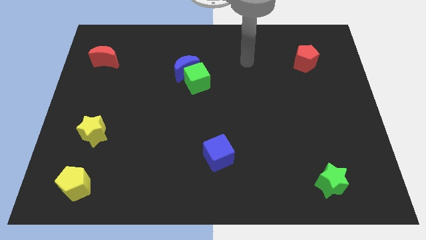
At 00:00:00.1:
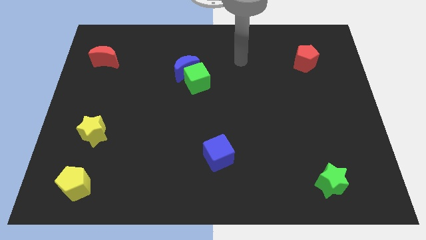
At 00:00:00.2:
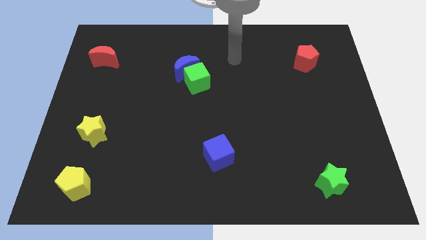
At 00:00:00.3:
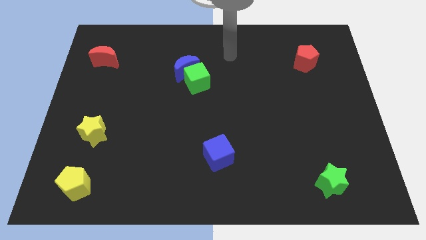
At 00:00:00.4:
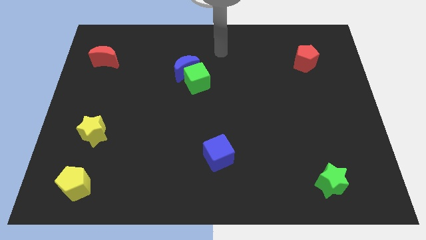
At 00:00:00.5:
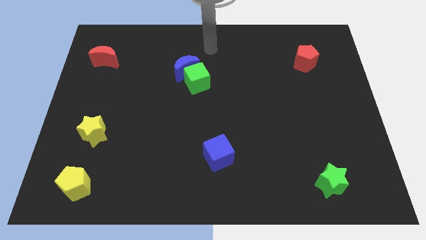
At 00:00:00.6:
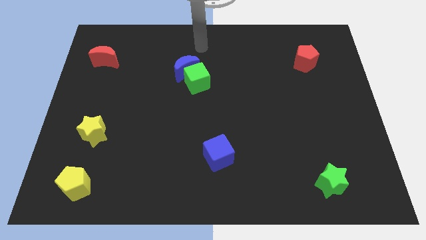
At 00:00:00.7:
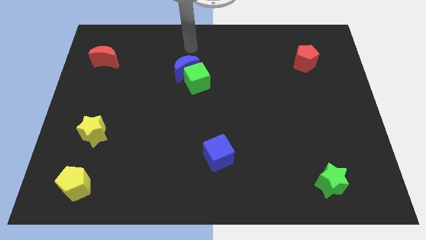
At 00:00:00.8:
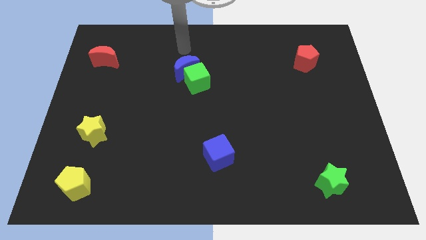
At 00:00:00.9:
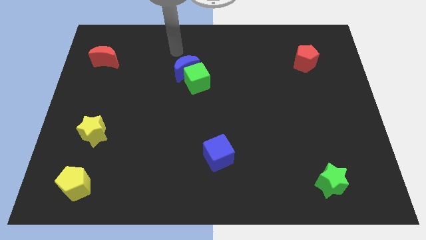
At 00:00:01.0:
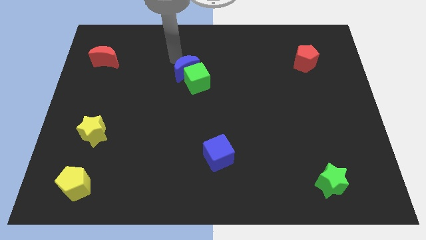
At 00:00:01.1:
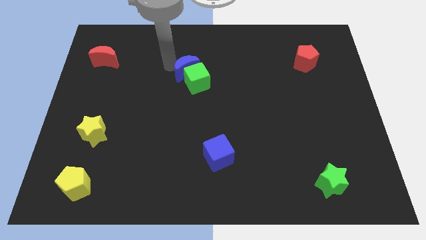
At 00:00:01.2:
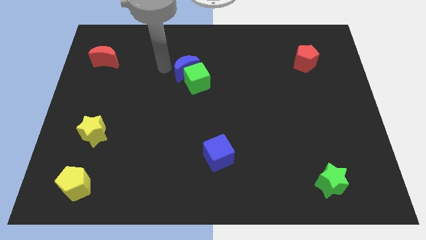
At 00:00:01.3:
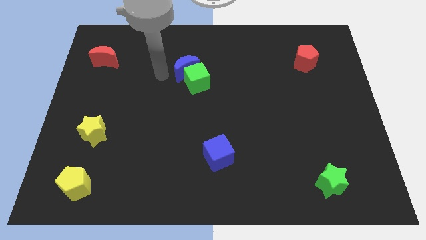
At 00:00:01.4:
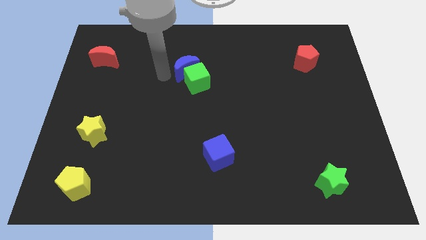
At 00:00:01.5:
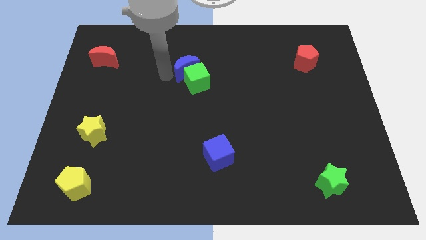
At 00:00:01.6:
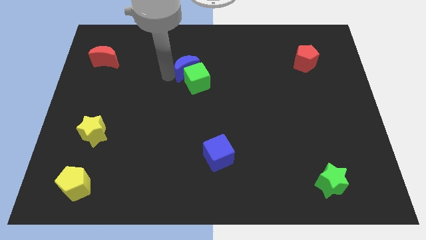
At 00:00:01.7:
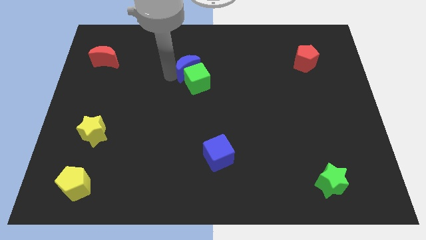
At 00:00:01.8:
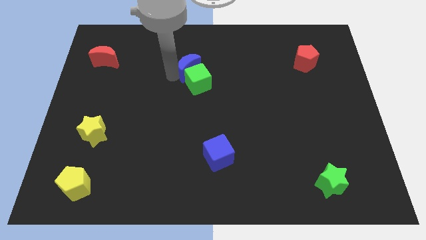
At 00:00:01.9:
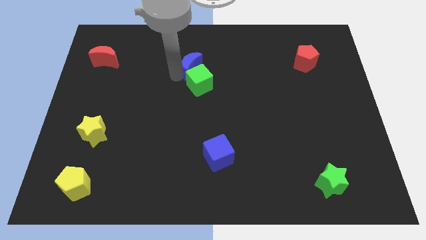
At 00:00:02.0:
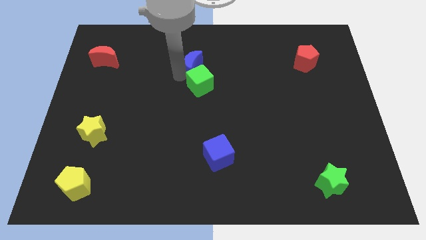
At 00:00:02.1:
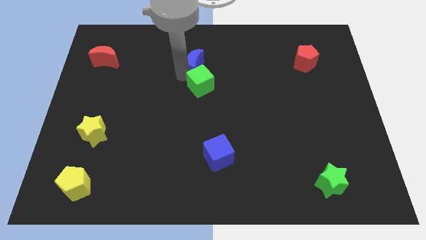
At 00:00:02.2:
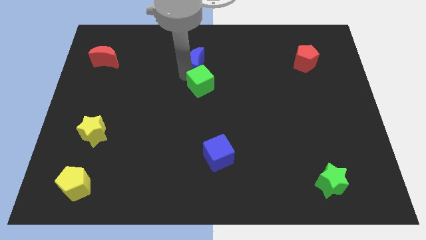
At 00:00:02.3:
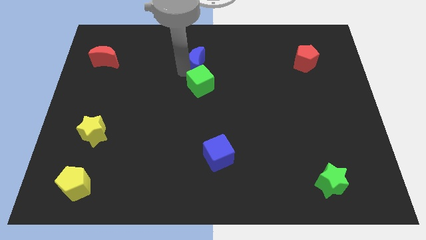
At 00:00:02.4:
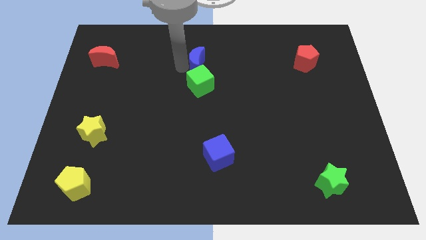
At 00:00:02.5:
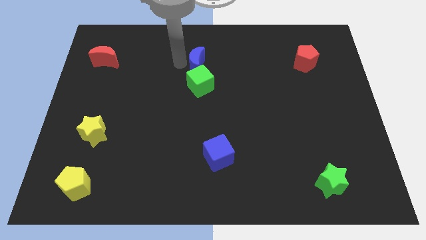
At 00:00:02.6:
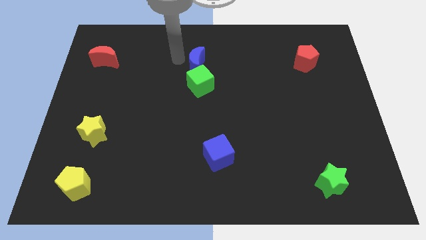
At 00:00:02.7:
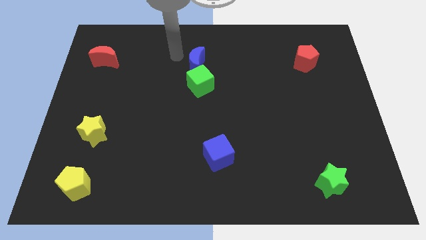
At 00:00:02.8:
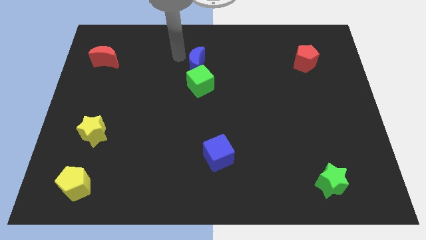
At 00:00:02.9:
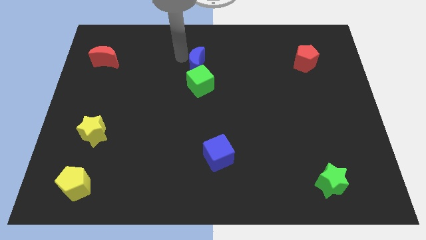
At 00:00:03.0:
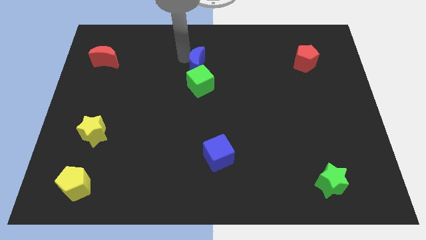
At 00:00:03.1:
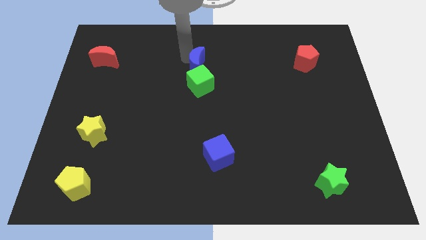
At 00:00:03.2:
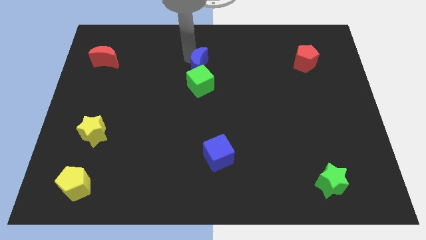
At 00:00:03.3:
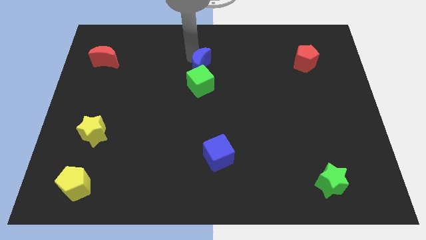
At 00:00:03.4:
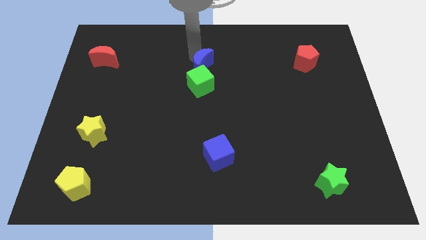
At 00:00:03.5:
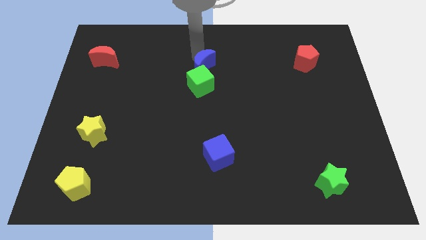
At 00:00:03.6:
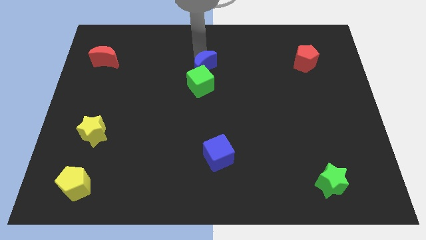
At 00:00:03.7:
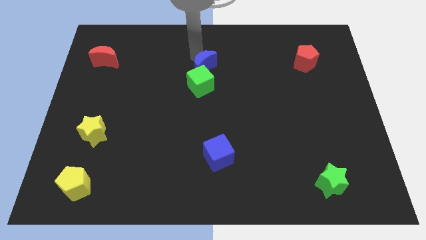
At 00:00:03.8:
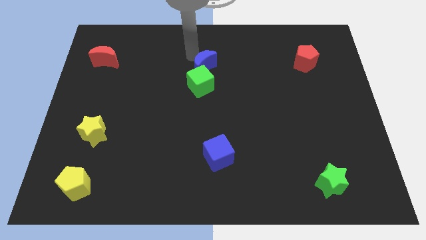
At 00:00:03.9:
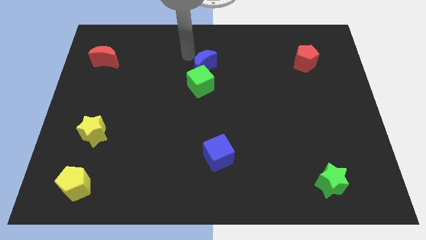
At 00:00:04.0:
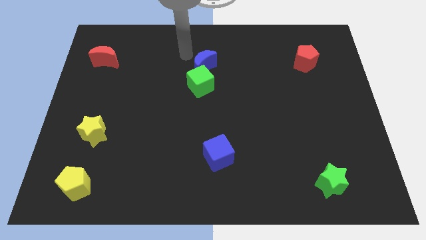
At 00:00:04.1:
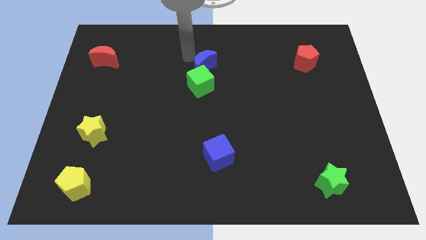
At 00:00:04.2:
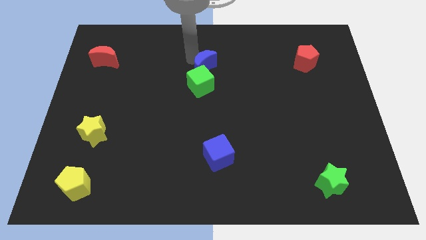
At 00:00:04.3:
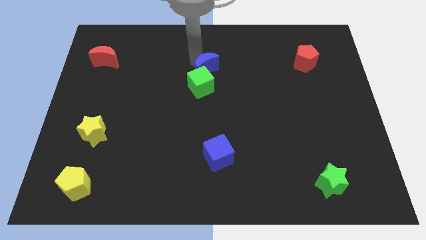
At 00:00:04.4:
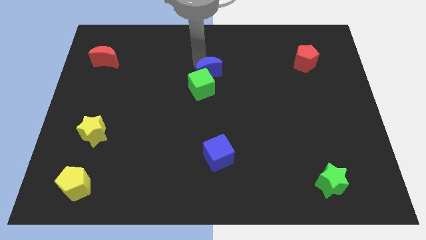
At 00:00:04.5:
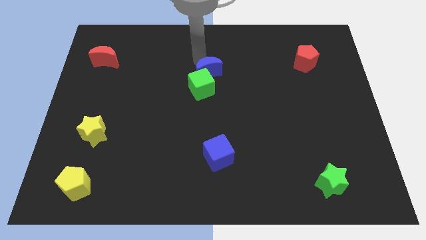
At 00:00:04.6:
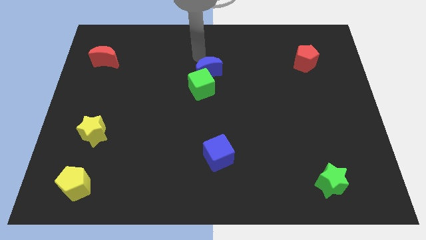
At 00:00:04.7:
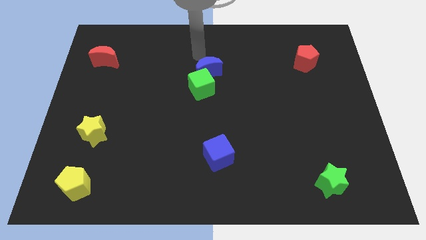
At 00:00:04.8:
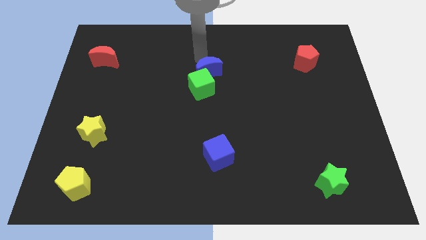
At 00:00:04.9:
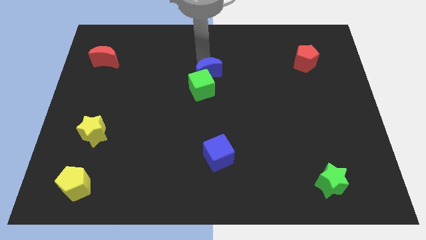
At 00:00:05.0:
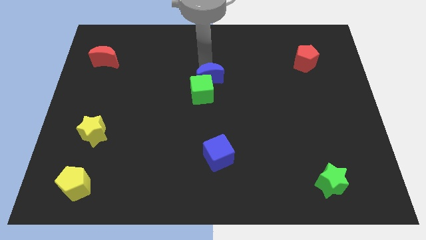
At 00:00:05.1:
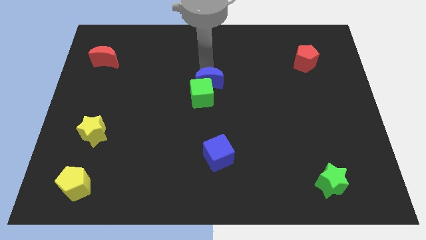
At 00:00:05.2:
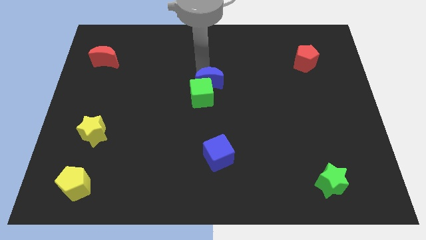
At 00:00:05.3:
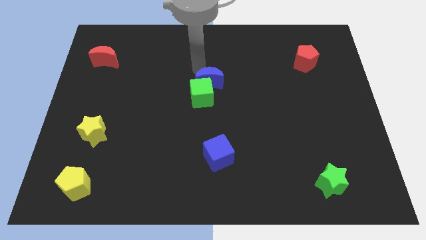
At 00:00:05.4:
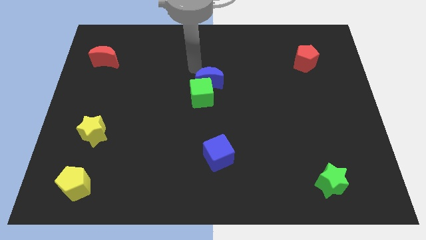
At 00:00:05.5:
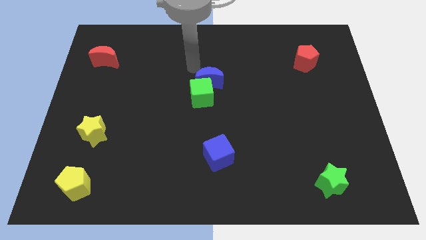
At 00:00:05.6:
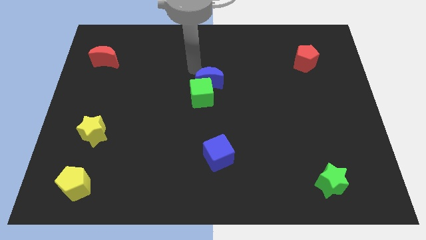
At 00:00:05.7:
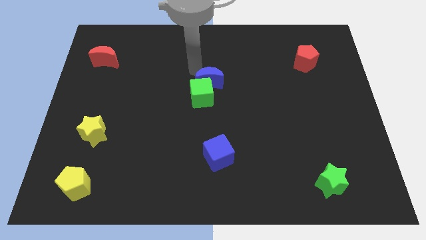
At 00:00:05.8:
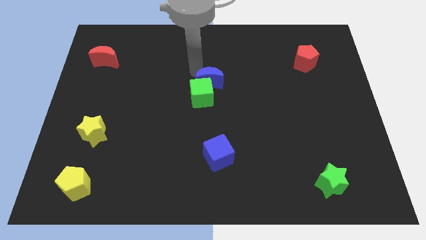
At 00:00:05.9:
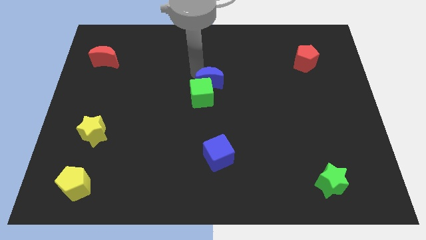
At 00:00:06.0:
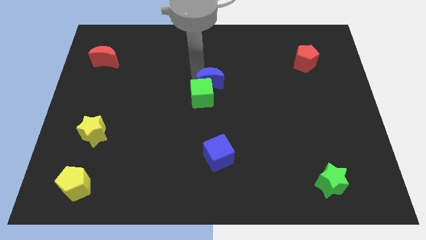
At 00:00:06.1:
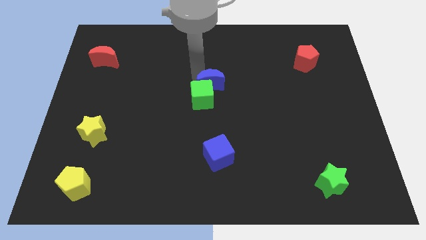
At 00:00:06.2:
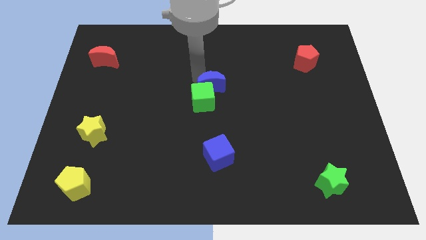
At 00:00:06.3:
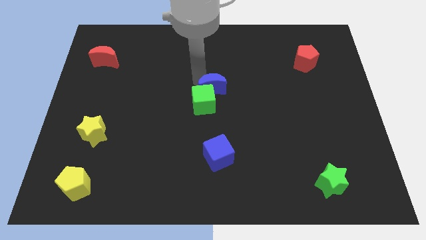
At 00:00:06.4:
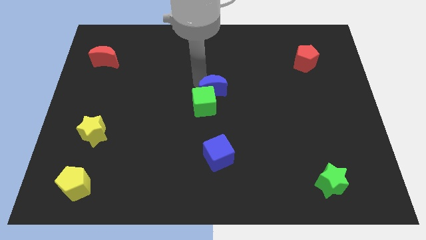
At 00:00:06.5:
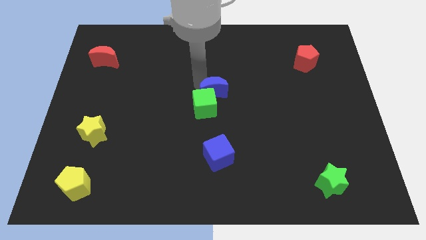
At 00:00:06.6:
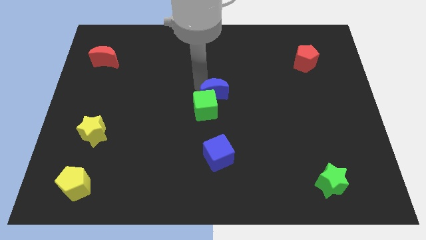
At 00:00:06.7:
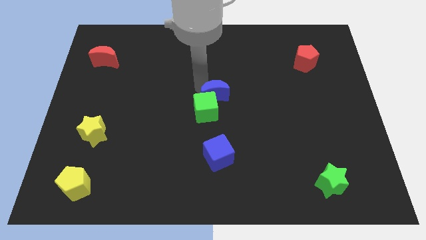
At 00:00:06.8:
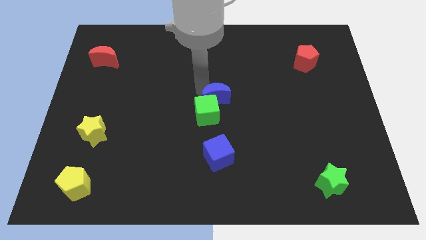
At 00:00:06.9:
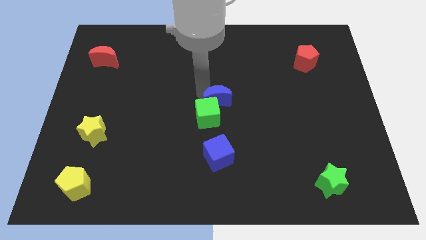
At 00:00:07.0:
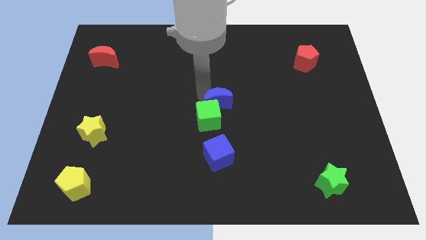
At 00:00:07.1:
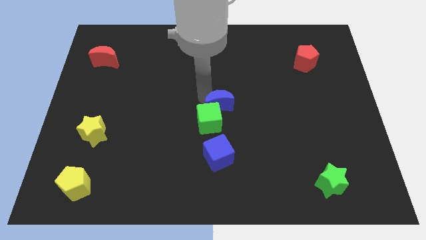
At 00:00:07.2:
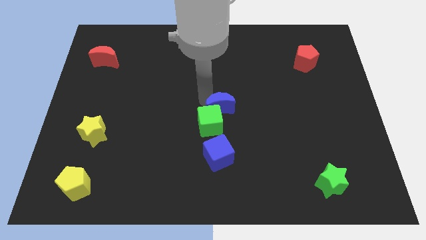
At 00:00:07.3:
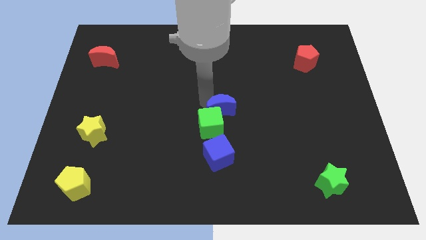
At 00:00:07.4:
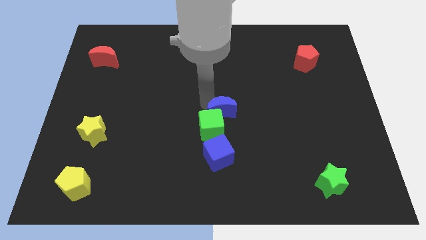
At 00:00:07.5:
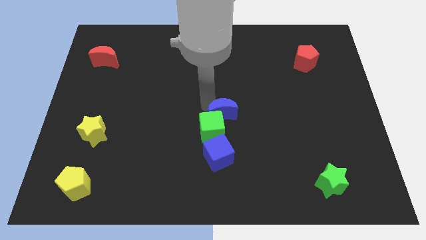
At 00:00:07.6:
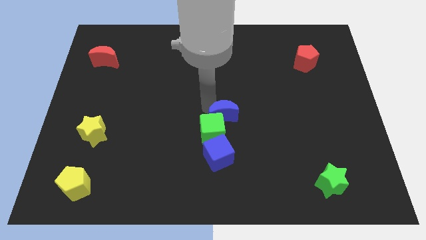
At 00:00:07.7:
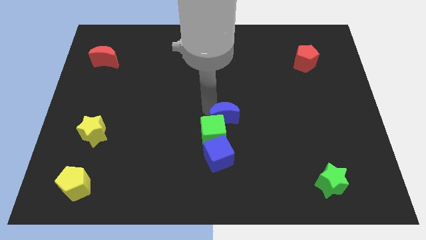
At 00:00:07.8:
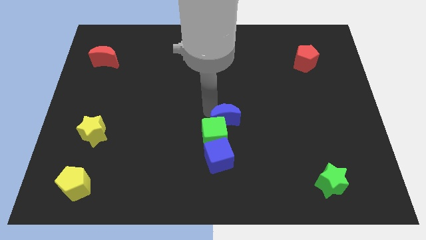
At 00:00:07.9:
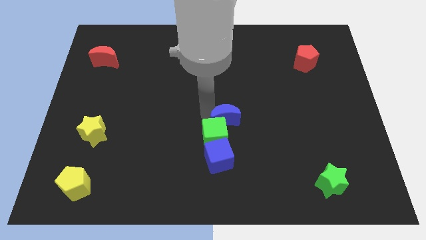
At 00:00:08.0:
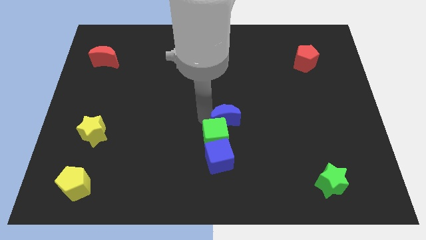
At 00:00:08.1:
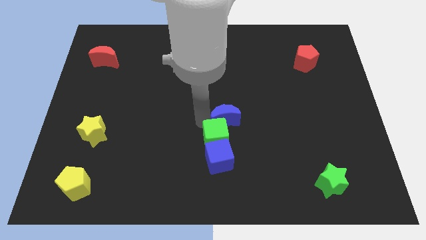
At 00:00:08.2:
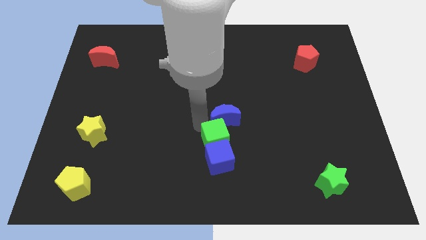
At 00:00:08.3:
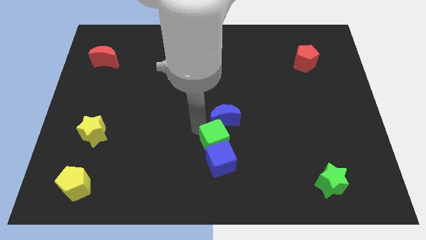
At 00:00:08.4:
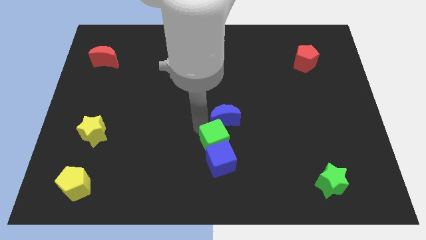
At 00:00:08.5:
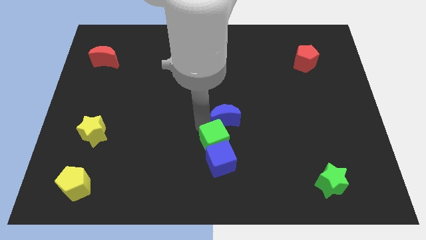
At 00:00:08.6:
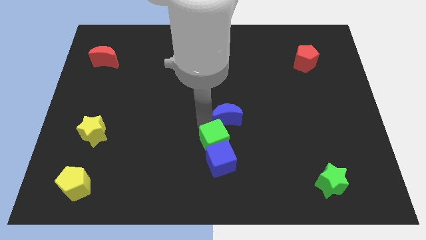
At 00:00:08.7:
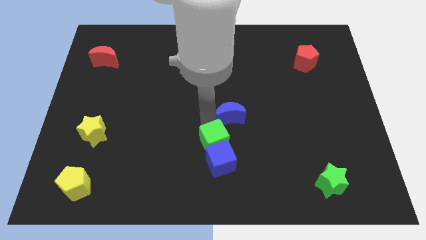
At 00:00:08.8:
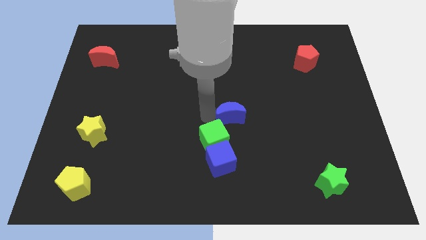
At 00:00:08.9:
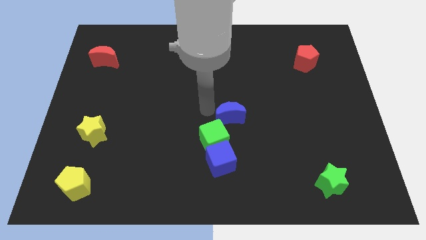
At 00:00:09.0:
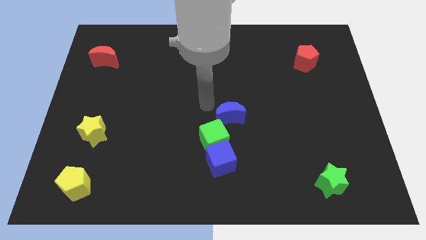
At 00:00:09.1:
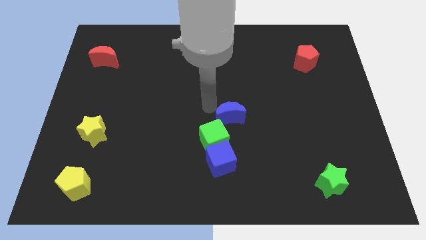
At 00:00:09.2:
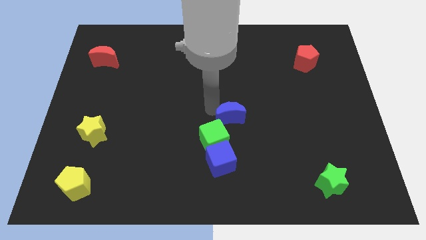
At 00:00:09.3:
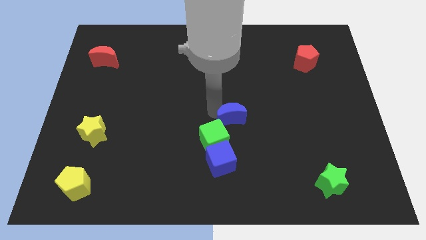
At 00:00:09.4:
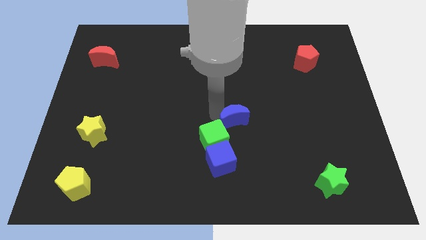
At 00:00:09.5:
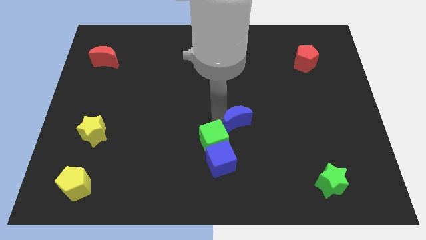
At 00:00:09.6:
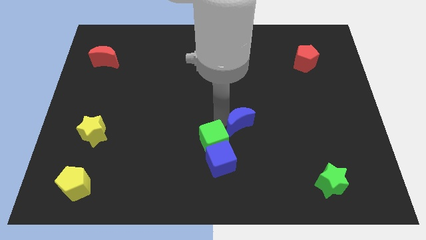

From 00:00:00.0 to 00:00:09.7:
slide the blue moon downwards and then right
